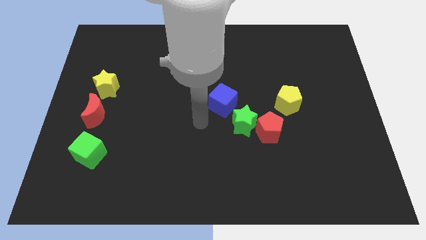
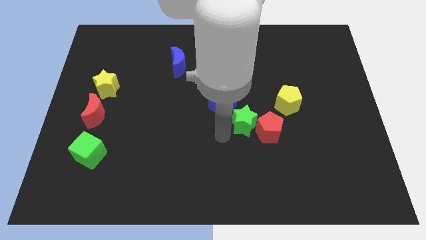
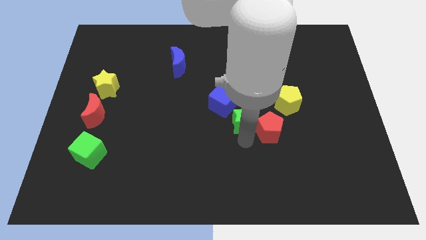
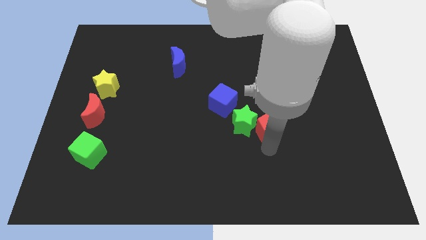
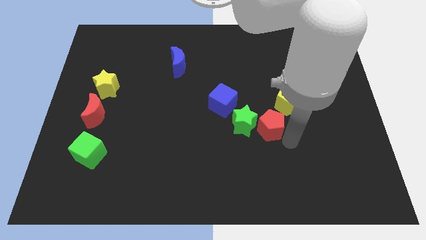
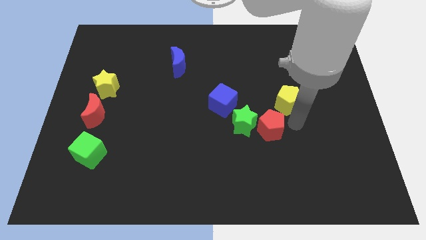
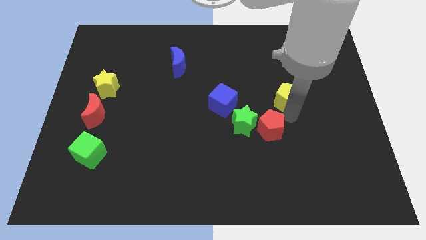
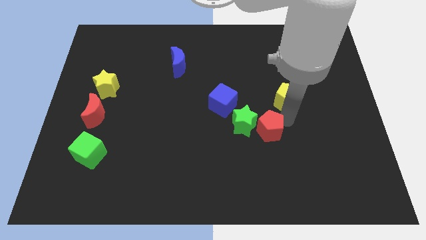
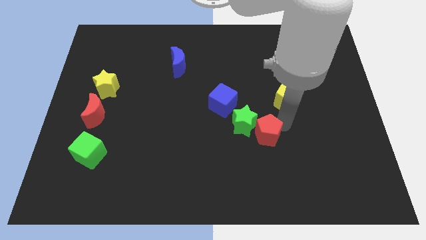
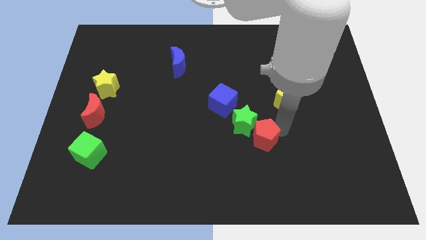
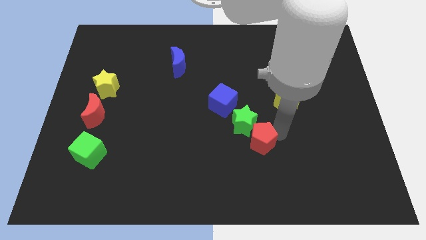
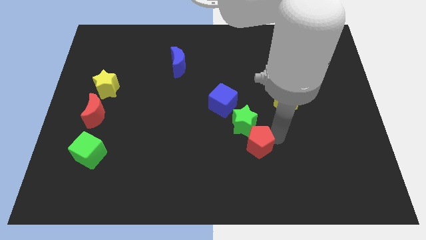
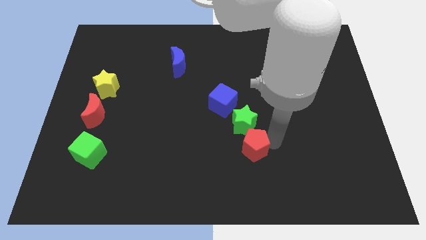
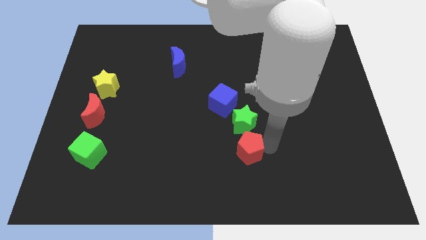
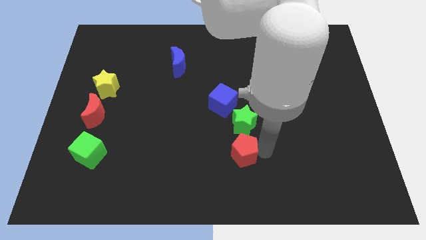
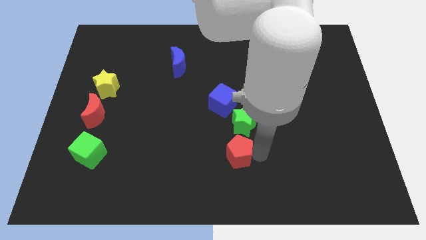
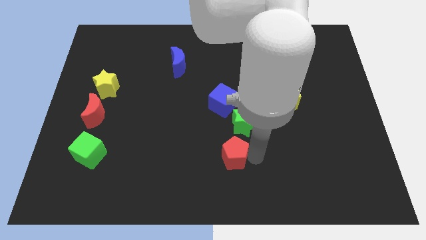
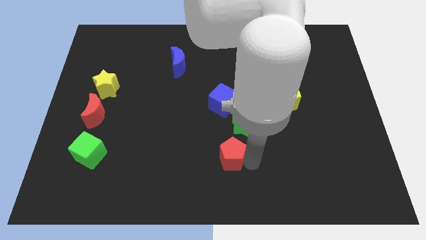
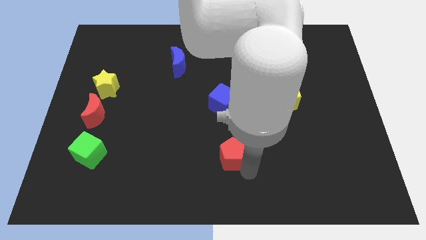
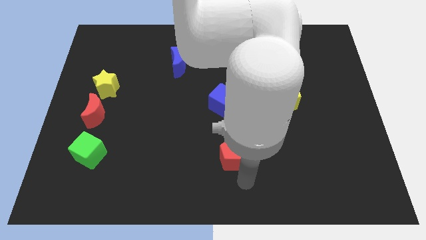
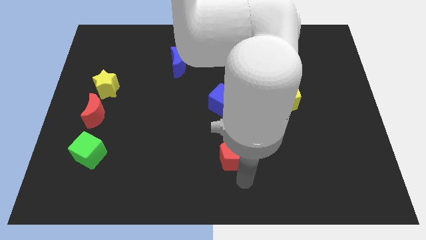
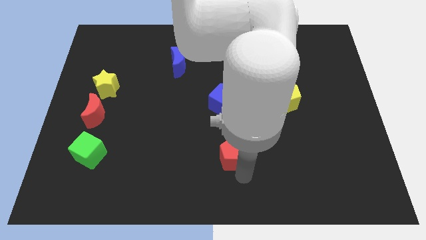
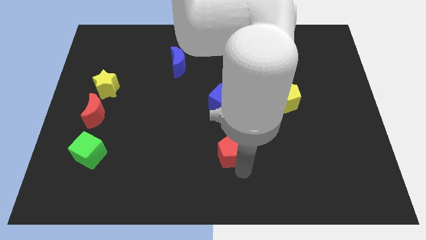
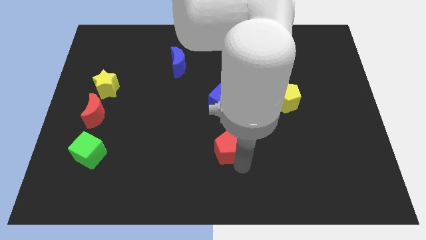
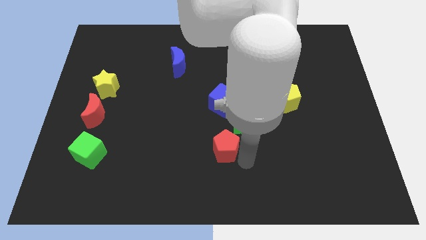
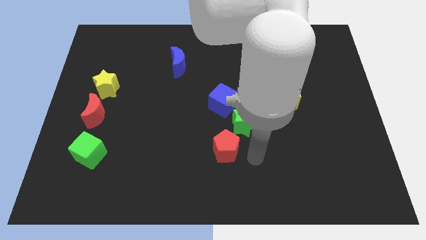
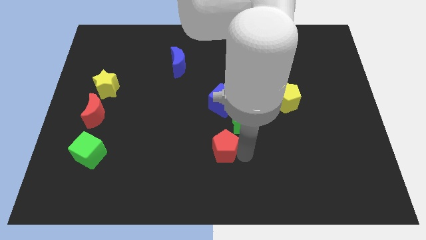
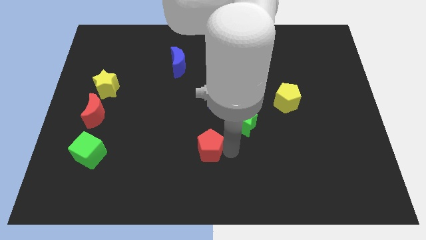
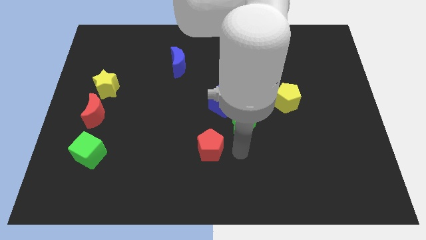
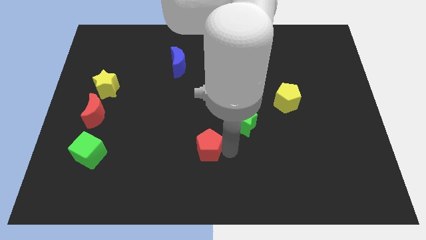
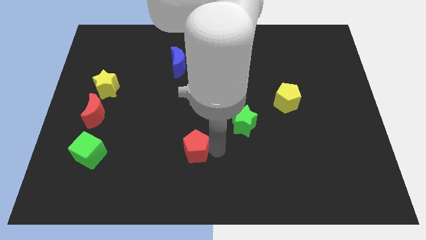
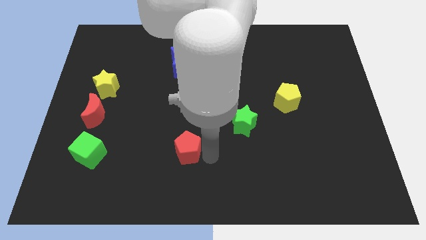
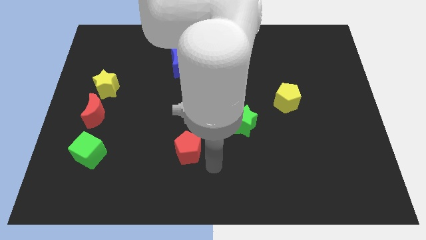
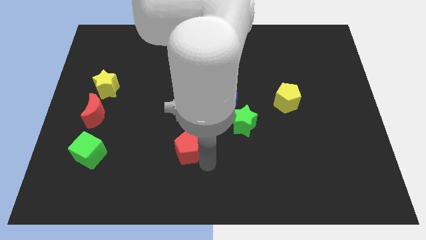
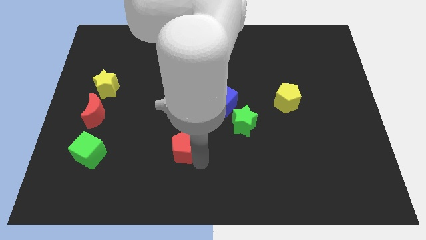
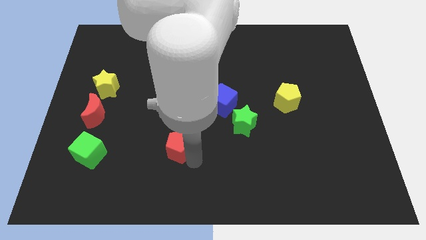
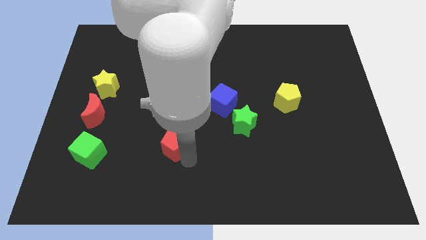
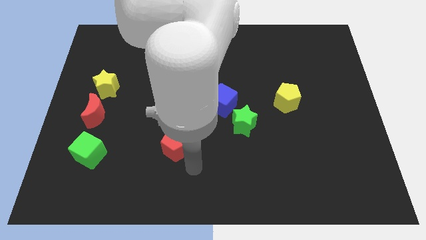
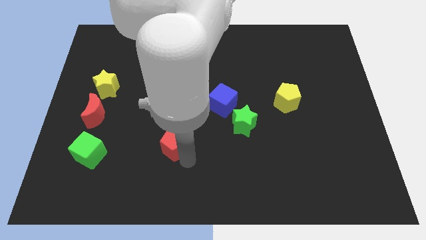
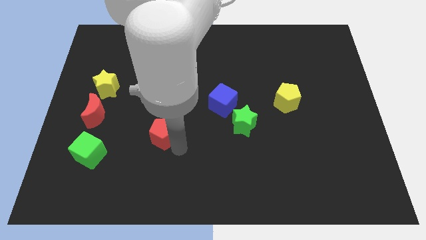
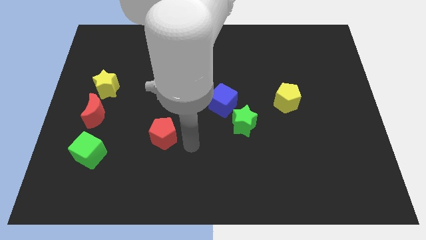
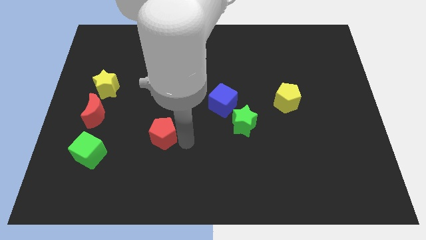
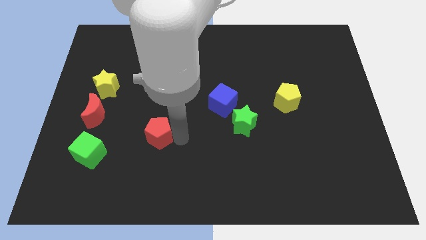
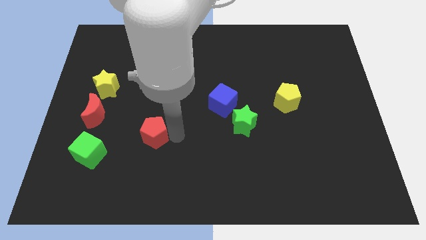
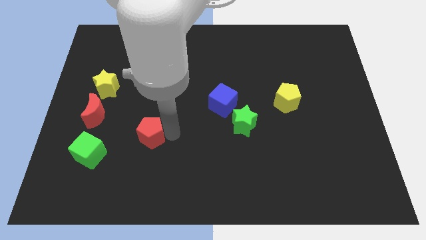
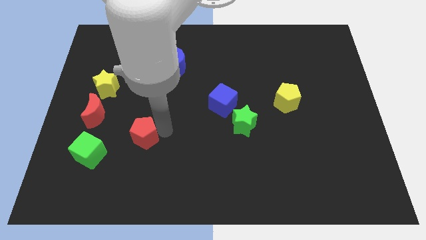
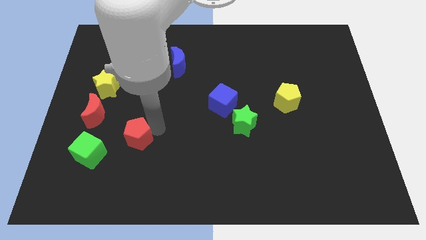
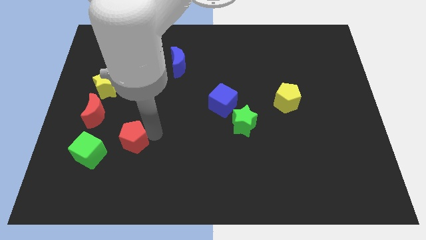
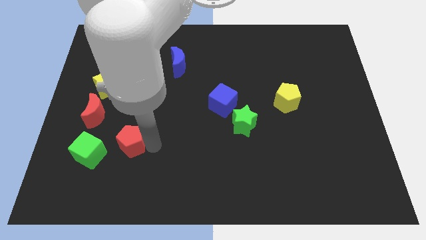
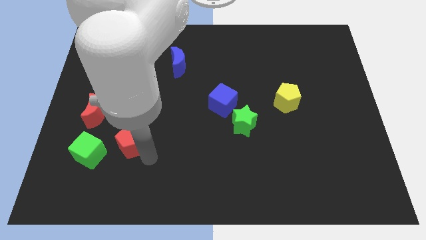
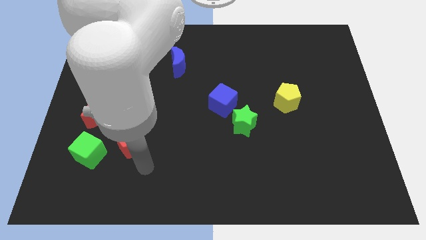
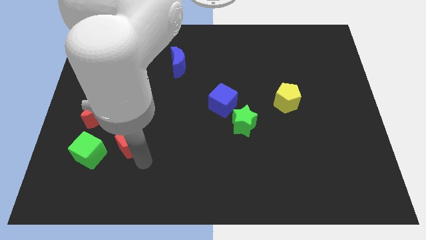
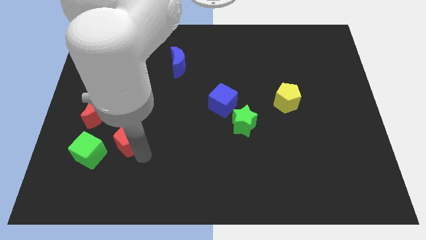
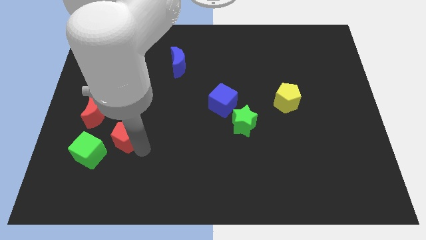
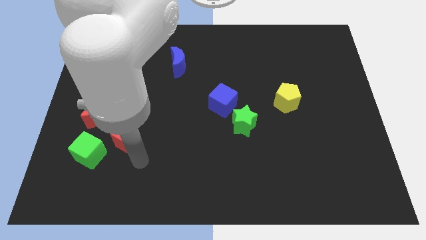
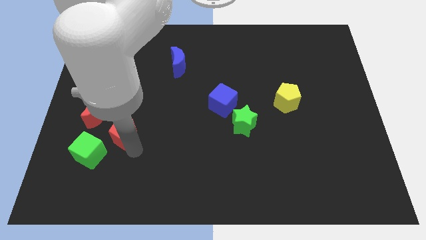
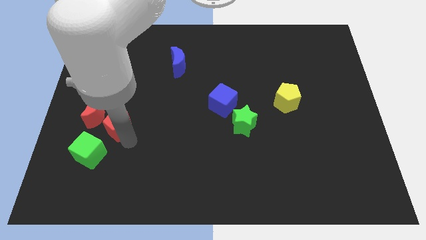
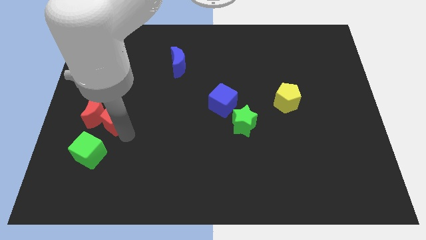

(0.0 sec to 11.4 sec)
slide the red pentagon next to the red moon

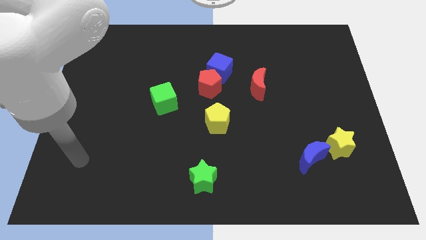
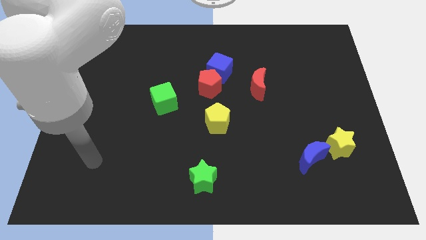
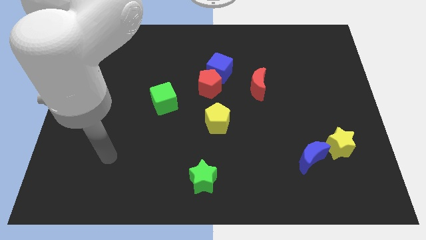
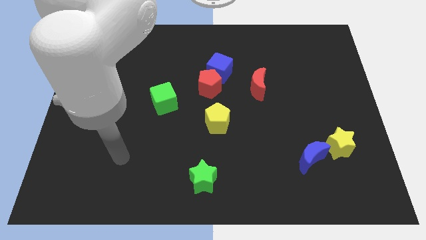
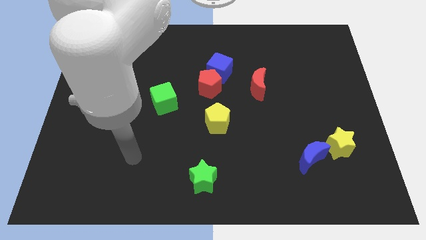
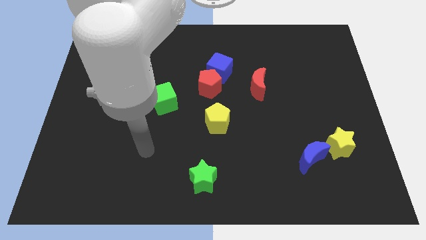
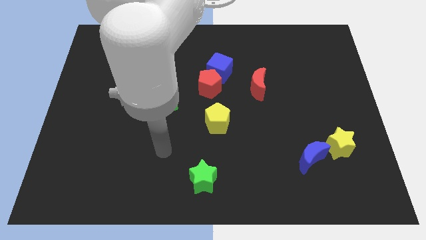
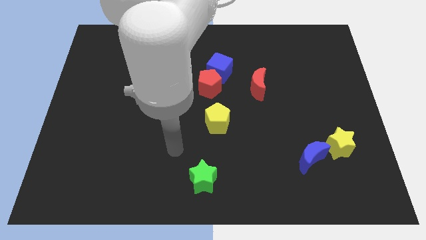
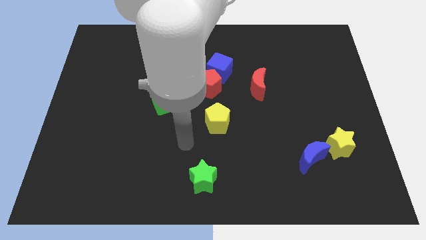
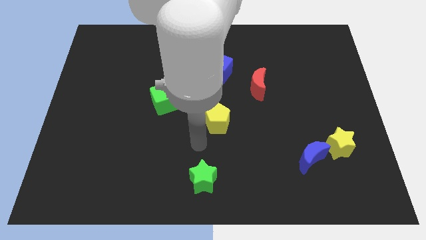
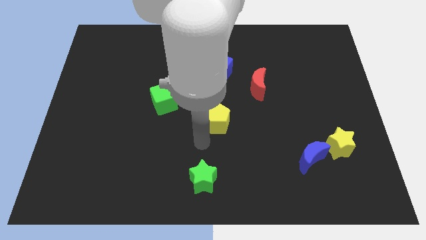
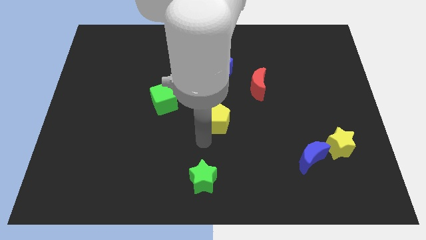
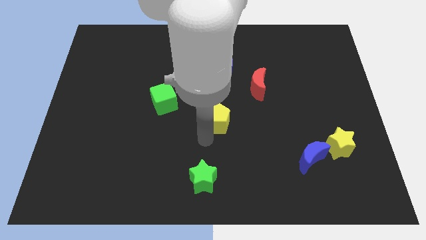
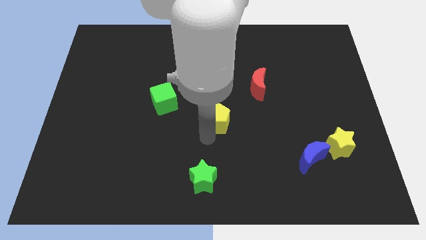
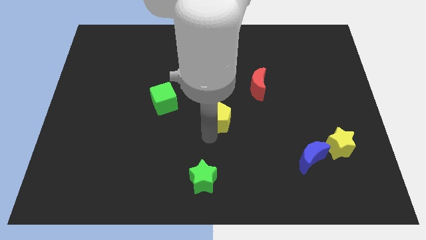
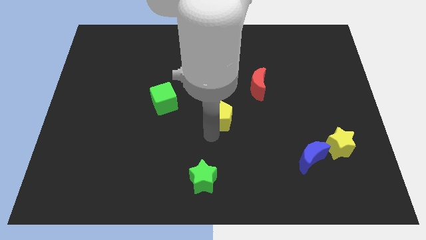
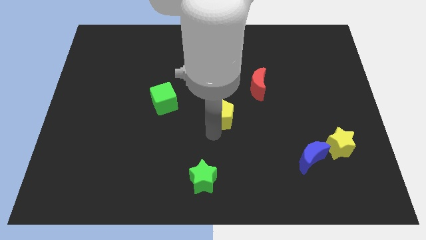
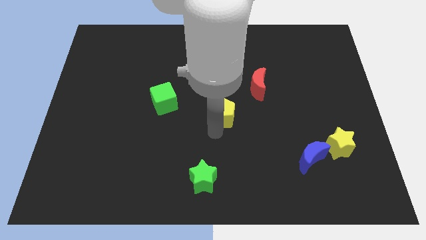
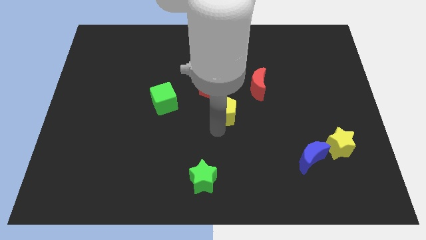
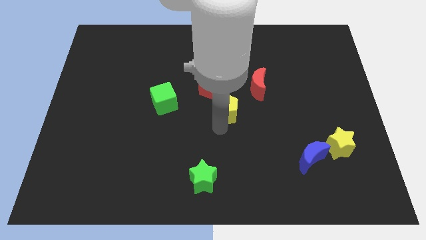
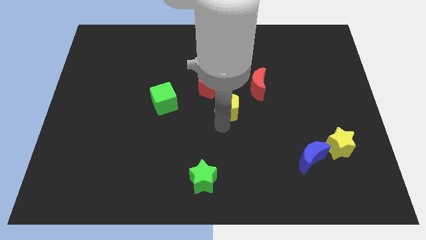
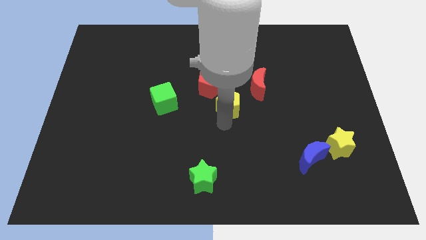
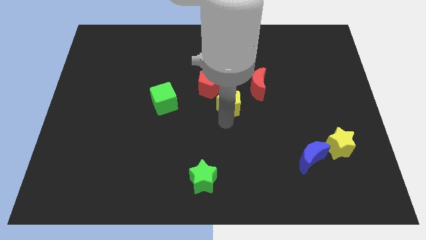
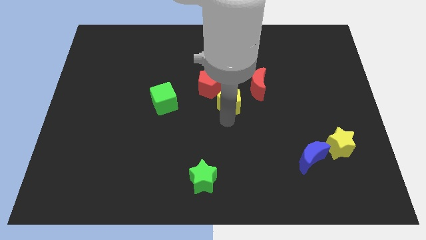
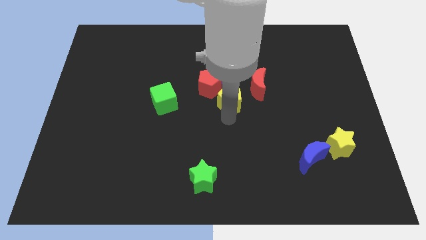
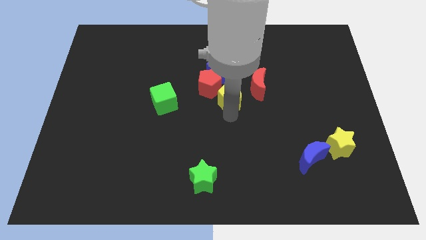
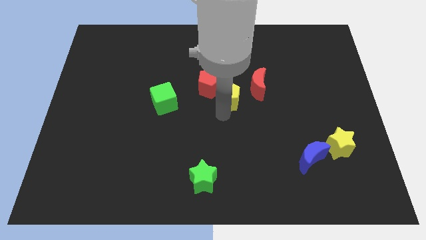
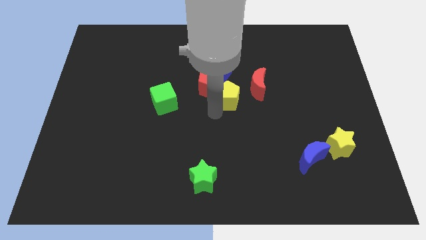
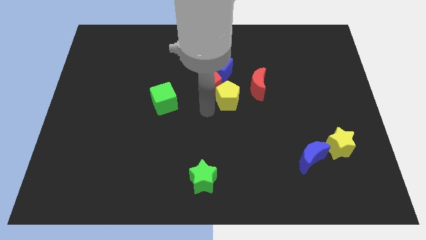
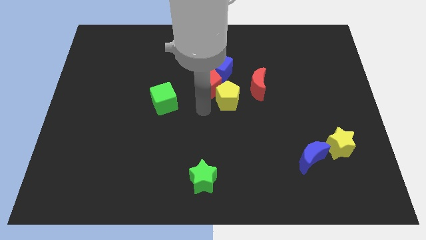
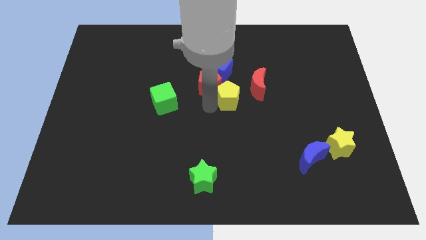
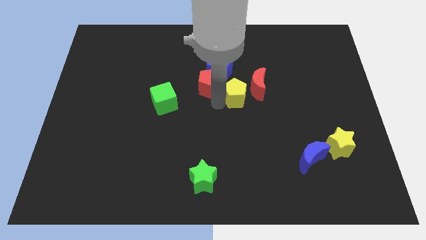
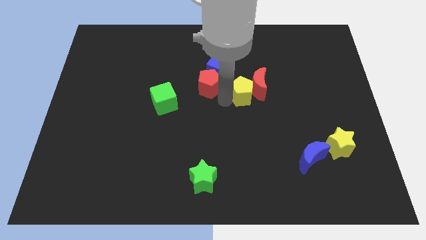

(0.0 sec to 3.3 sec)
push the yellow pentagon close to the red moon
